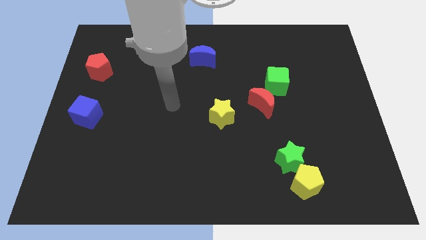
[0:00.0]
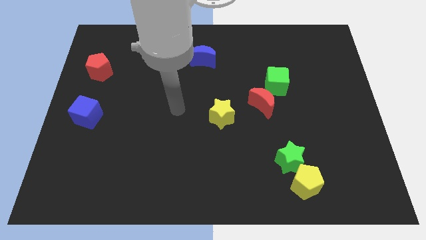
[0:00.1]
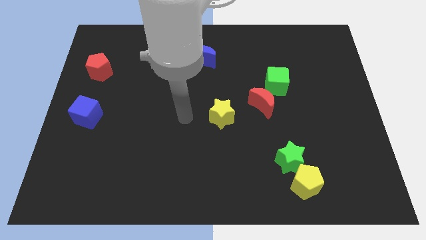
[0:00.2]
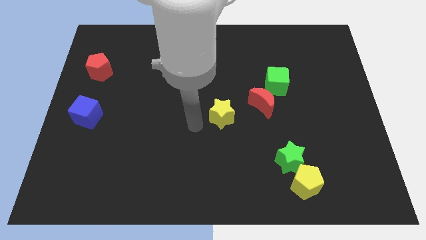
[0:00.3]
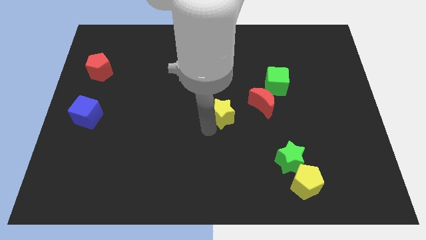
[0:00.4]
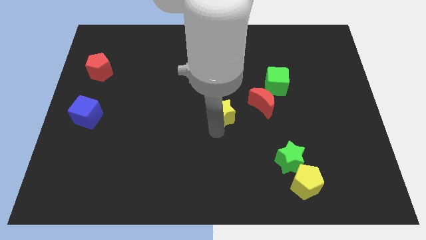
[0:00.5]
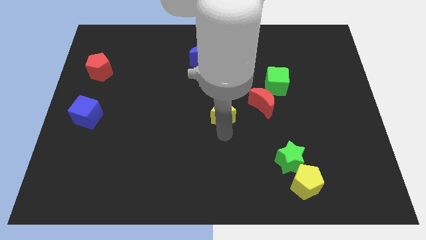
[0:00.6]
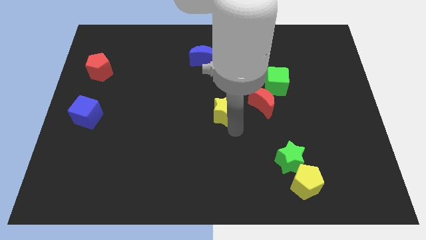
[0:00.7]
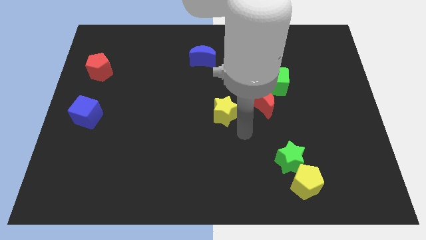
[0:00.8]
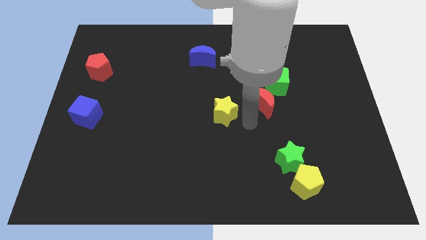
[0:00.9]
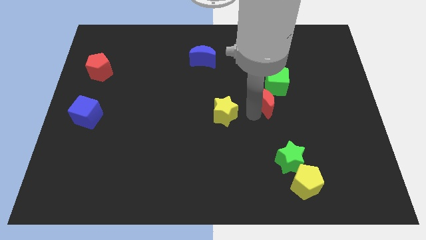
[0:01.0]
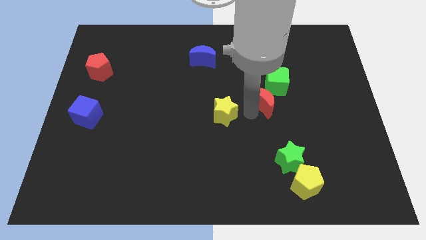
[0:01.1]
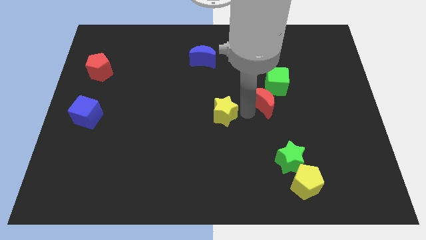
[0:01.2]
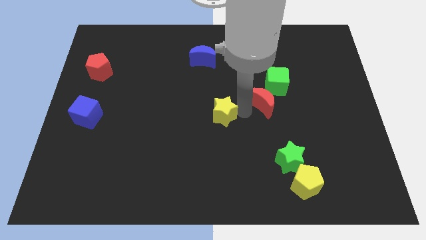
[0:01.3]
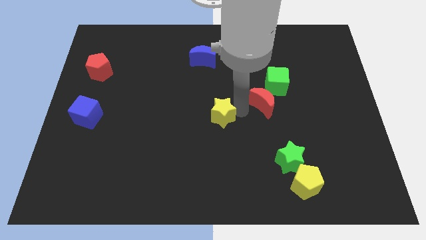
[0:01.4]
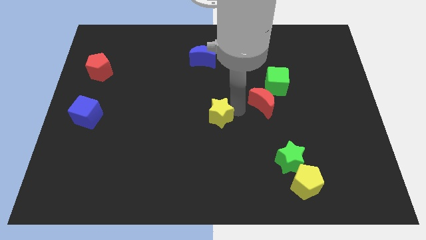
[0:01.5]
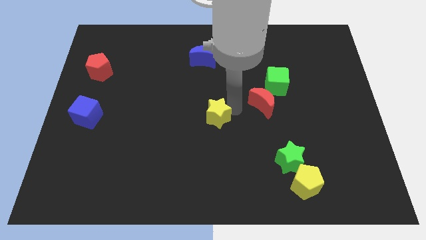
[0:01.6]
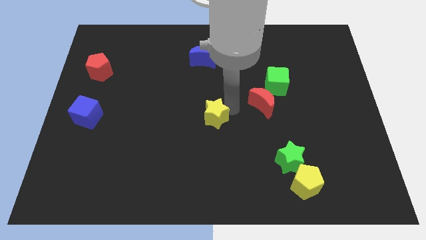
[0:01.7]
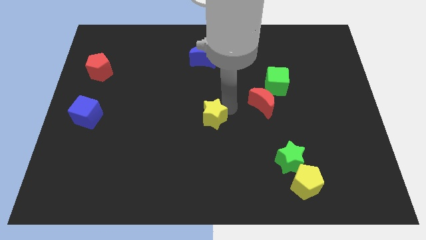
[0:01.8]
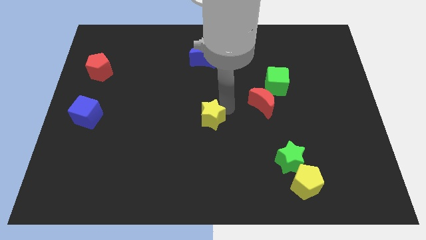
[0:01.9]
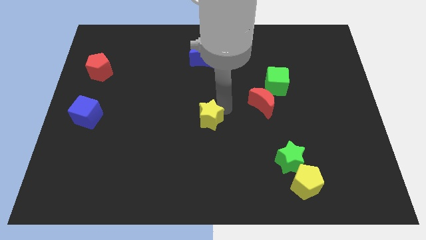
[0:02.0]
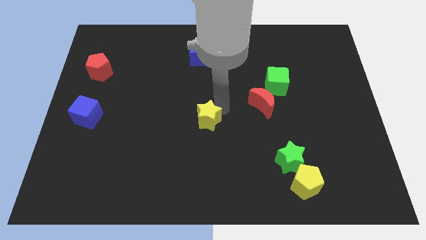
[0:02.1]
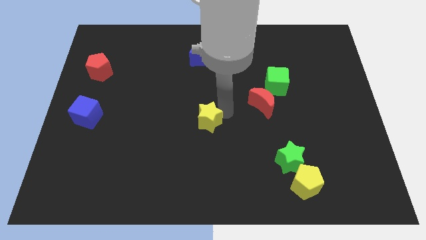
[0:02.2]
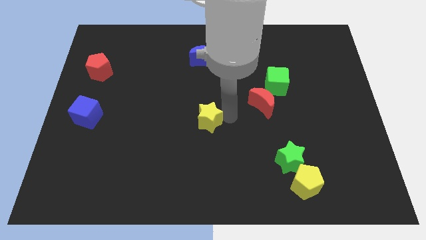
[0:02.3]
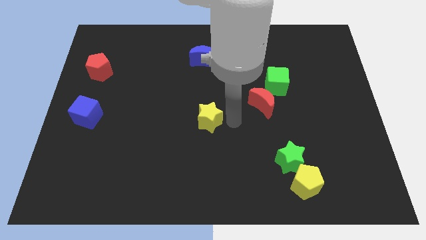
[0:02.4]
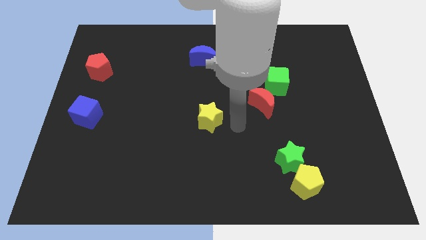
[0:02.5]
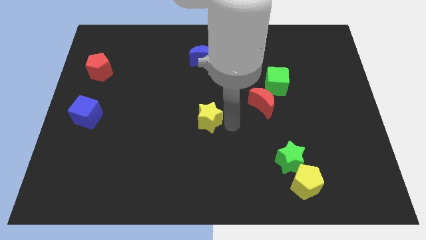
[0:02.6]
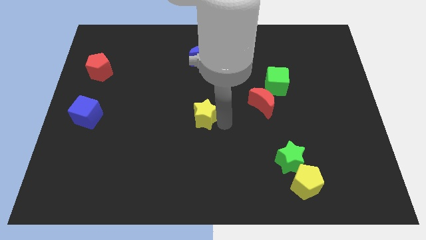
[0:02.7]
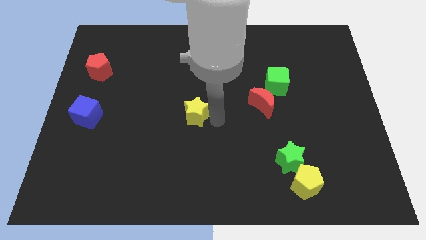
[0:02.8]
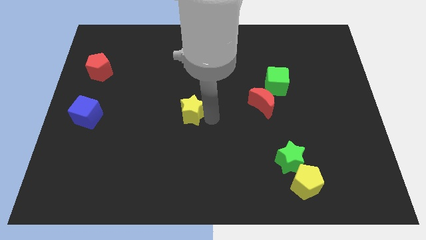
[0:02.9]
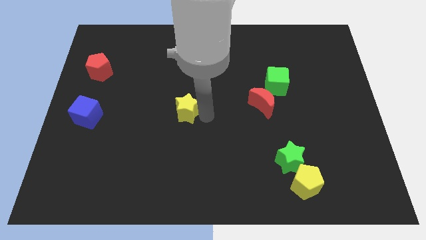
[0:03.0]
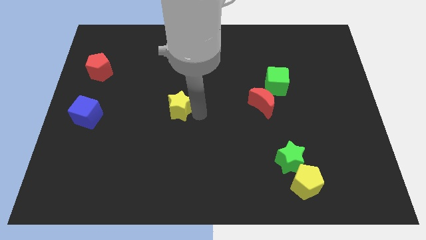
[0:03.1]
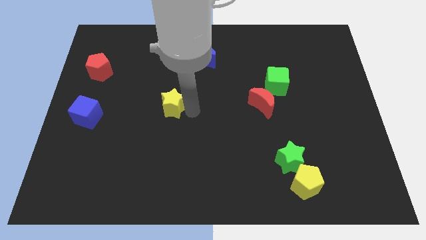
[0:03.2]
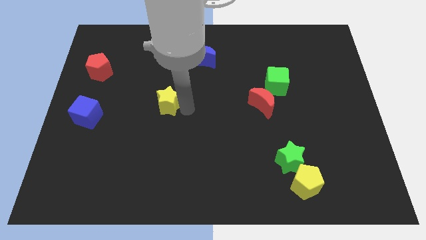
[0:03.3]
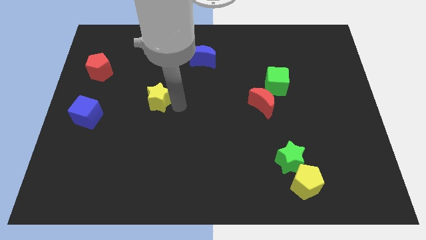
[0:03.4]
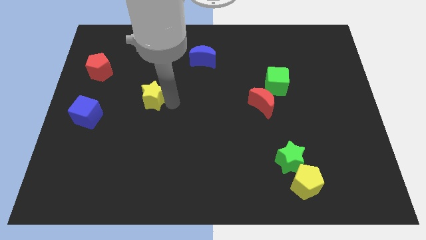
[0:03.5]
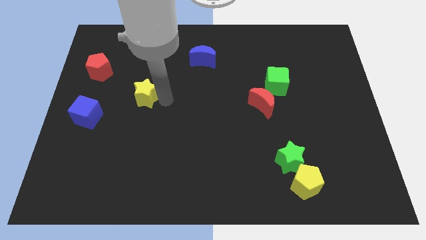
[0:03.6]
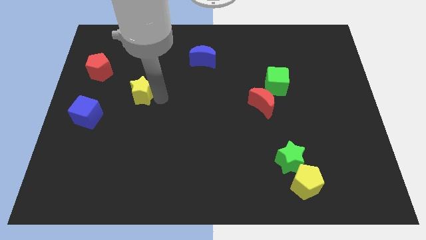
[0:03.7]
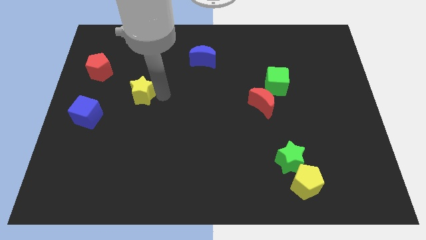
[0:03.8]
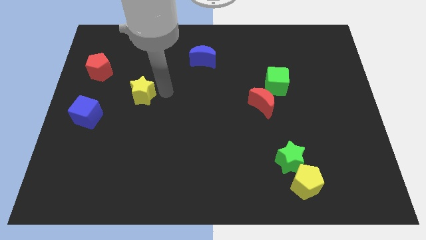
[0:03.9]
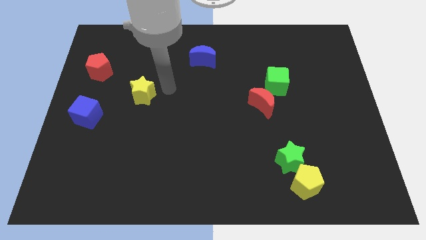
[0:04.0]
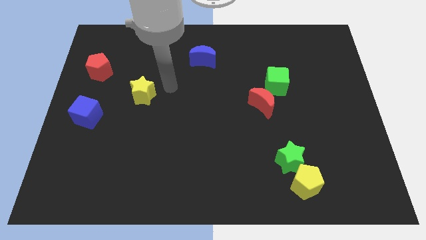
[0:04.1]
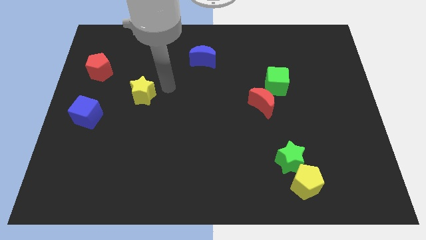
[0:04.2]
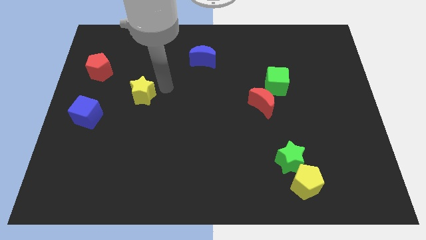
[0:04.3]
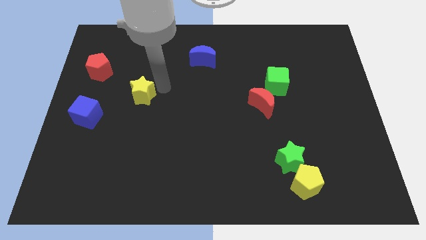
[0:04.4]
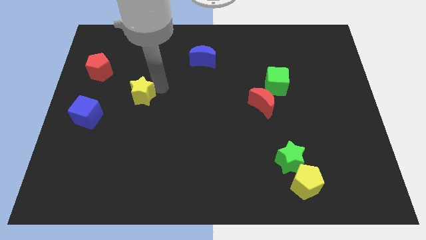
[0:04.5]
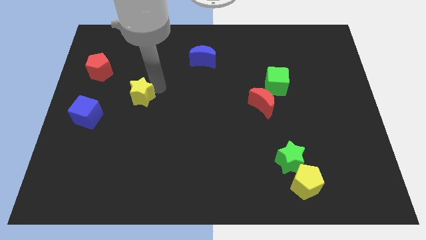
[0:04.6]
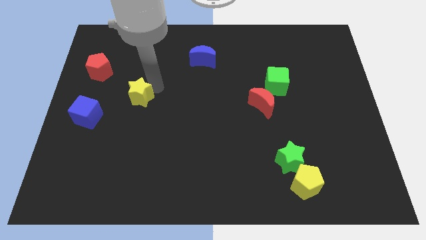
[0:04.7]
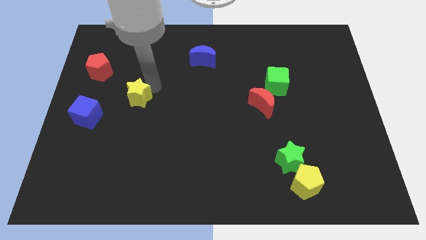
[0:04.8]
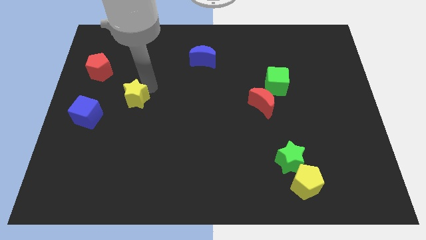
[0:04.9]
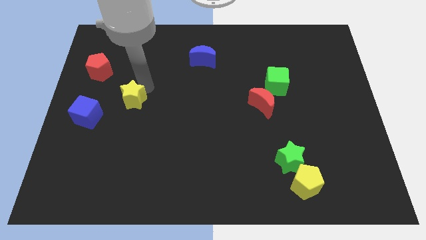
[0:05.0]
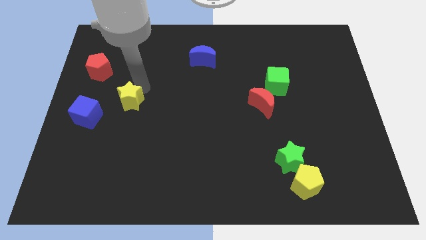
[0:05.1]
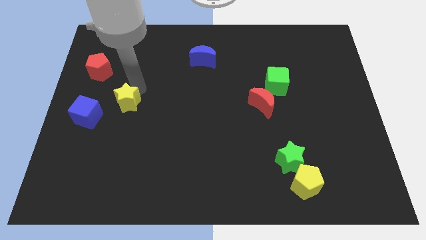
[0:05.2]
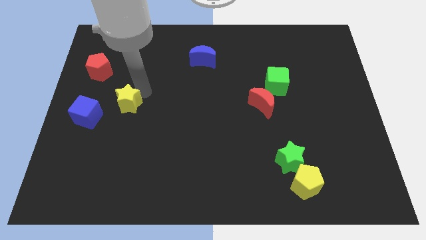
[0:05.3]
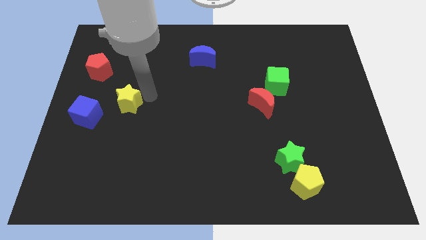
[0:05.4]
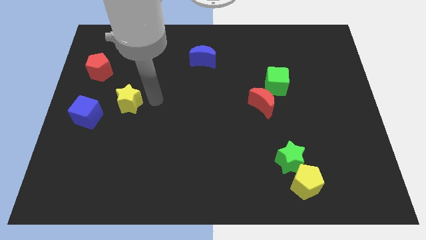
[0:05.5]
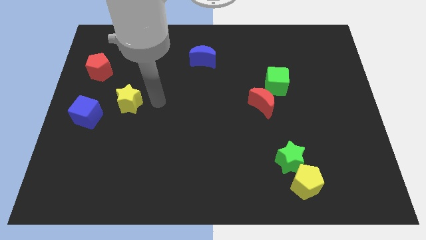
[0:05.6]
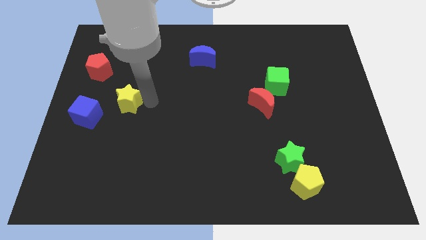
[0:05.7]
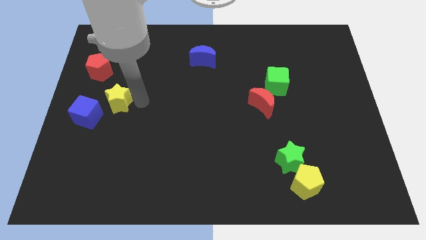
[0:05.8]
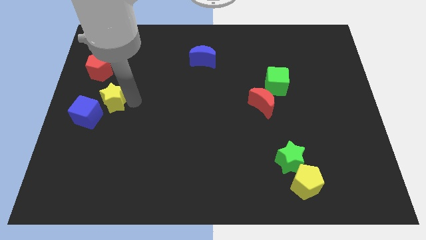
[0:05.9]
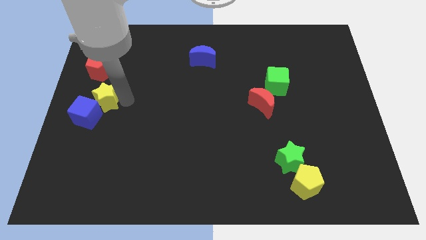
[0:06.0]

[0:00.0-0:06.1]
put the yellow star to the bottom of the red pentagon
